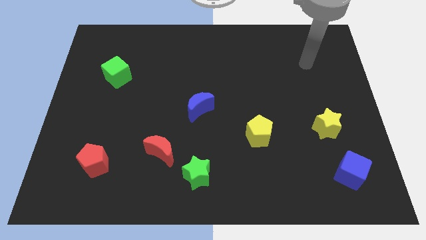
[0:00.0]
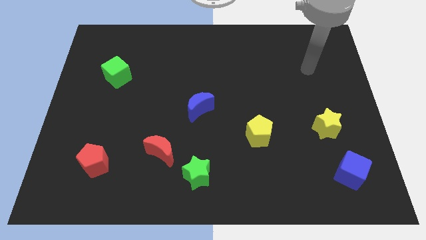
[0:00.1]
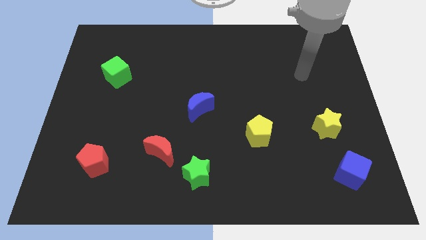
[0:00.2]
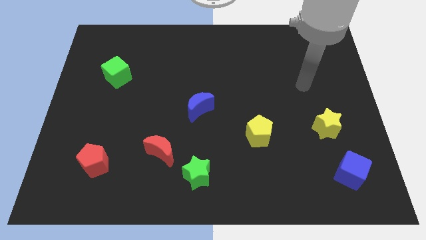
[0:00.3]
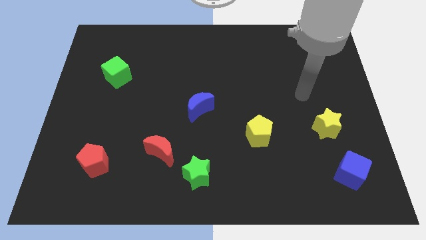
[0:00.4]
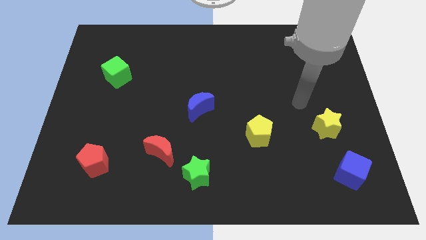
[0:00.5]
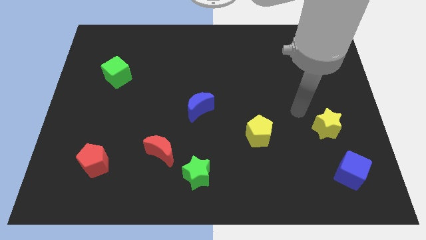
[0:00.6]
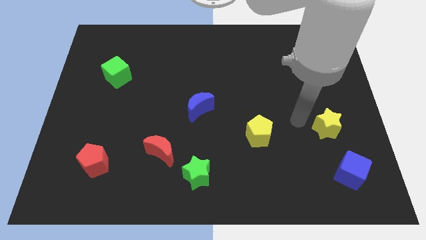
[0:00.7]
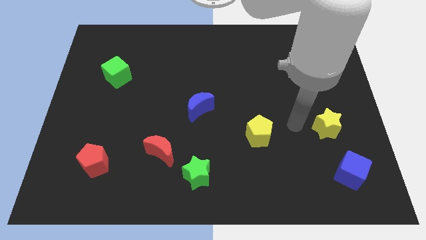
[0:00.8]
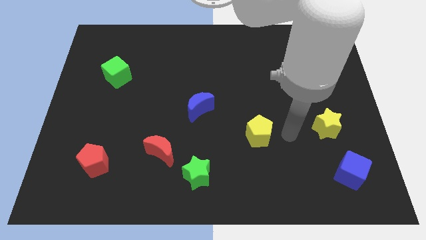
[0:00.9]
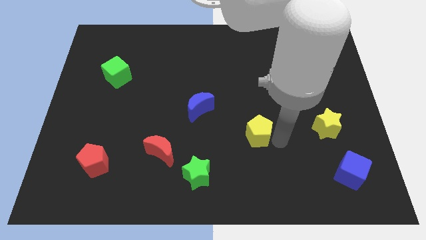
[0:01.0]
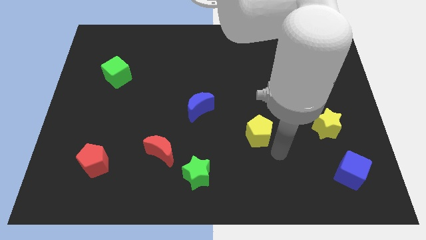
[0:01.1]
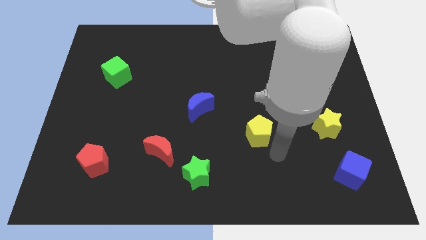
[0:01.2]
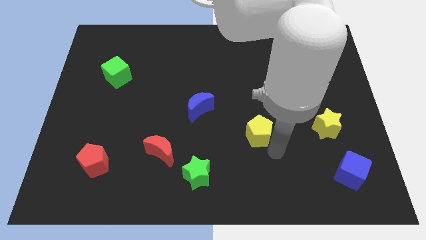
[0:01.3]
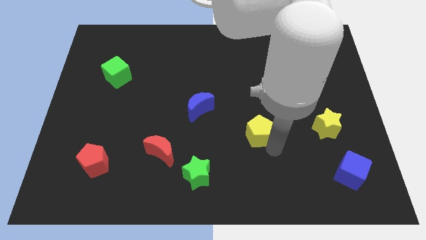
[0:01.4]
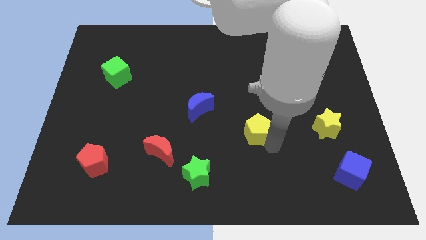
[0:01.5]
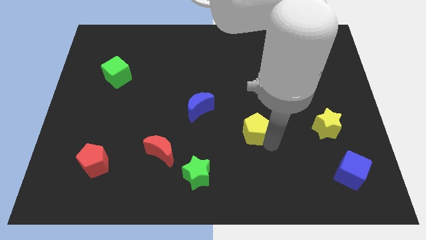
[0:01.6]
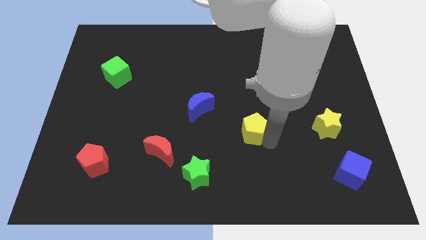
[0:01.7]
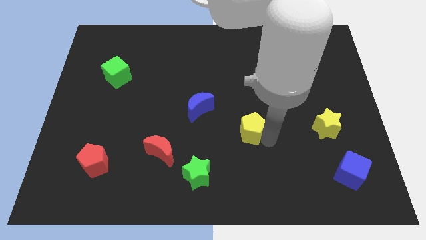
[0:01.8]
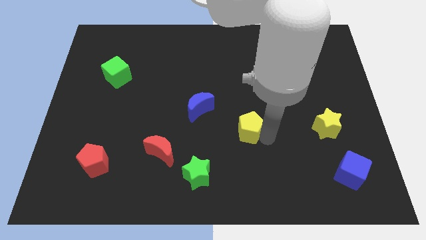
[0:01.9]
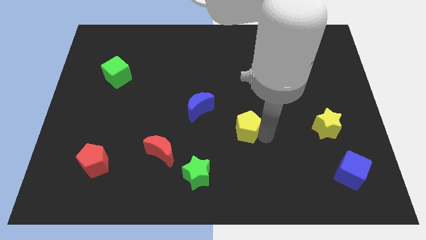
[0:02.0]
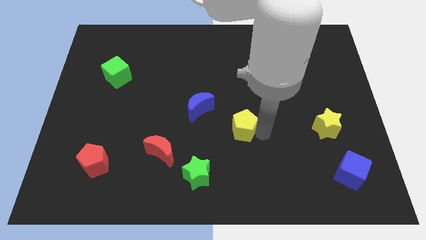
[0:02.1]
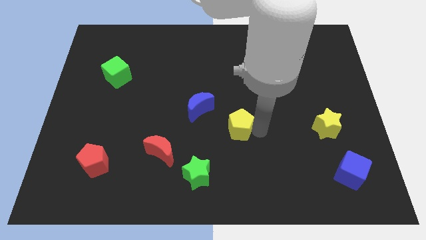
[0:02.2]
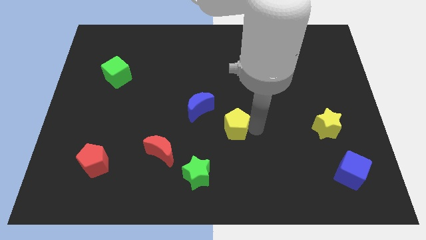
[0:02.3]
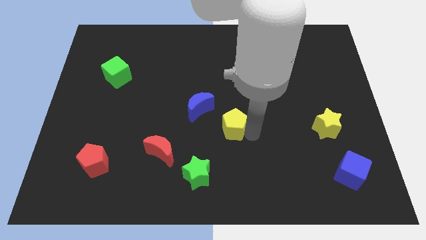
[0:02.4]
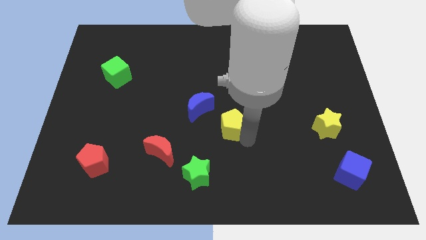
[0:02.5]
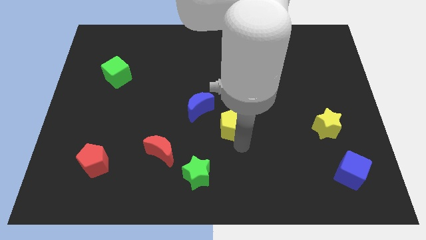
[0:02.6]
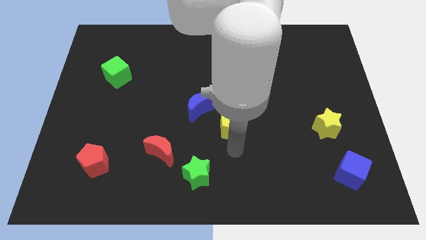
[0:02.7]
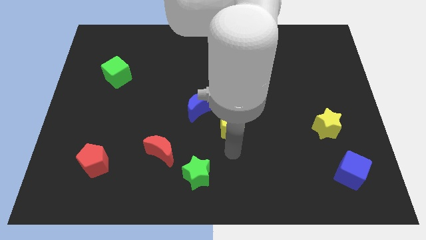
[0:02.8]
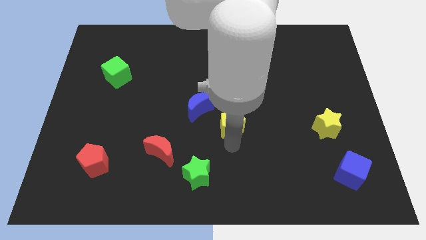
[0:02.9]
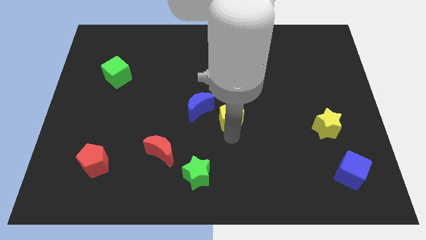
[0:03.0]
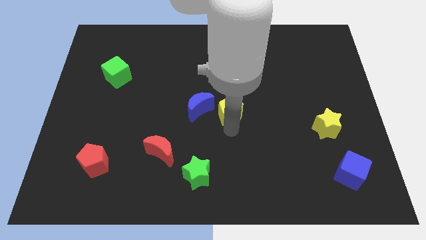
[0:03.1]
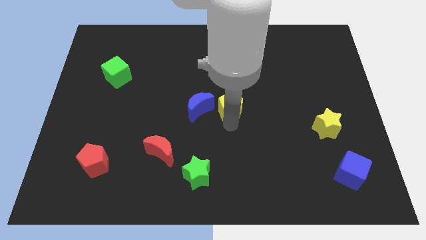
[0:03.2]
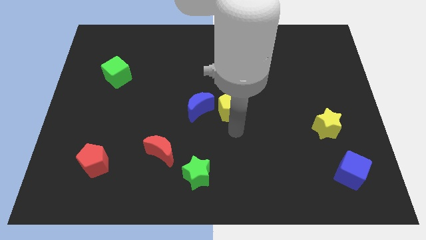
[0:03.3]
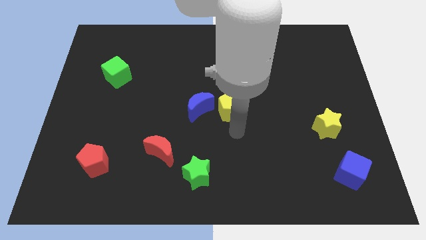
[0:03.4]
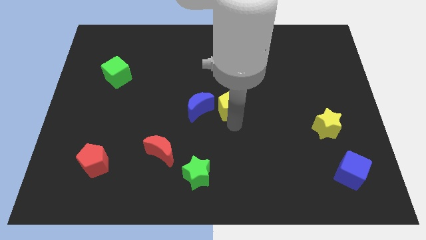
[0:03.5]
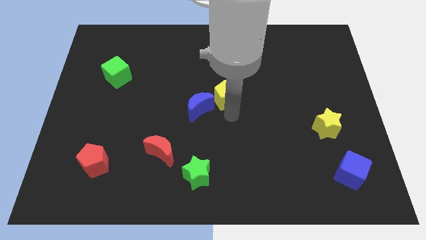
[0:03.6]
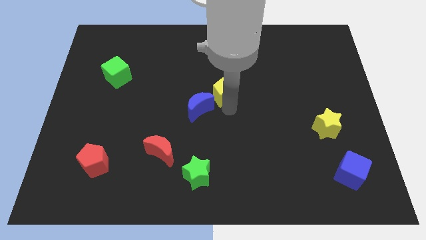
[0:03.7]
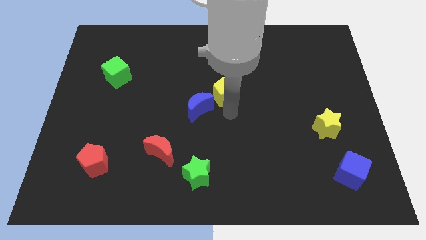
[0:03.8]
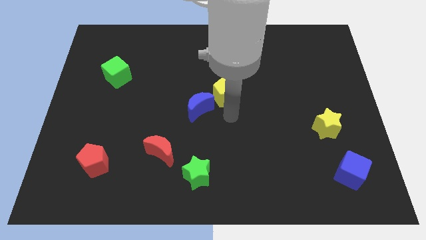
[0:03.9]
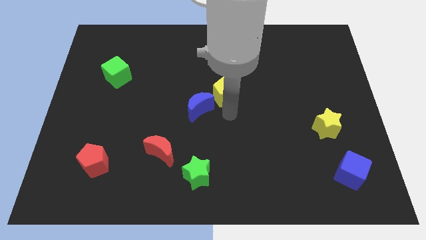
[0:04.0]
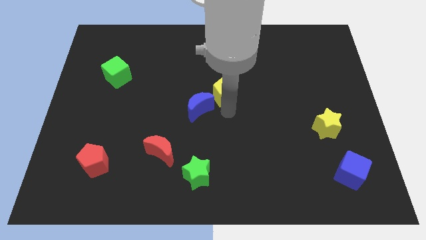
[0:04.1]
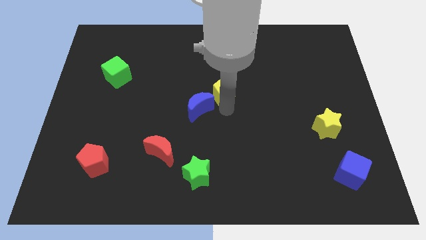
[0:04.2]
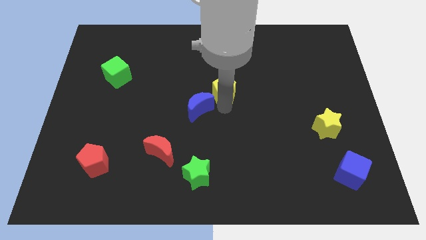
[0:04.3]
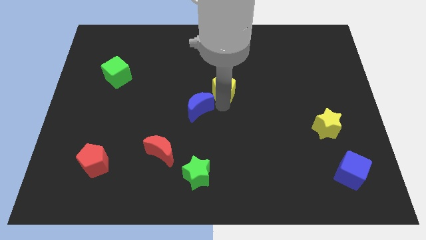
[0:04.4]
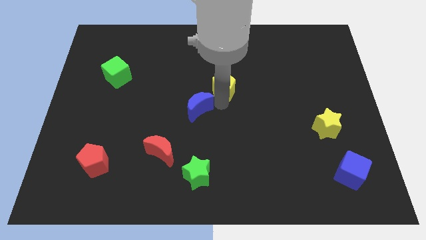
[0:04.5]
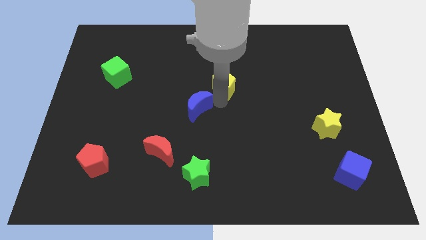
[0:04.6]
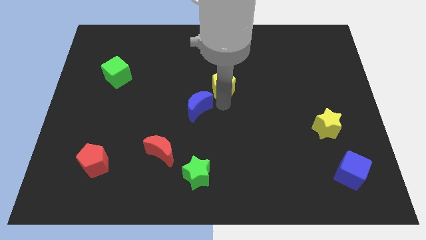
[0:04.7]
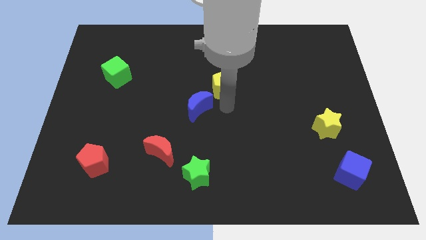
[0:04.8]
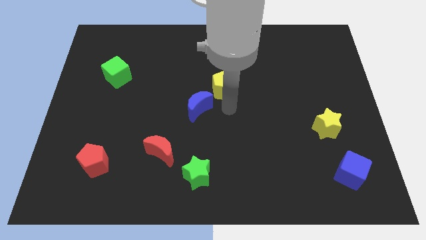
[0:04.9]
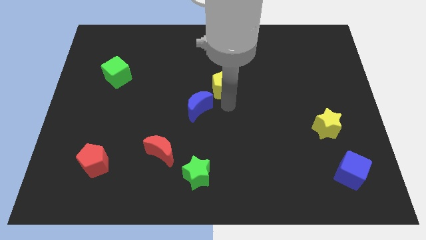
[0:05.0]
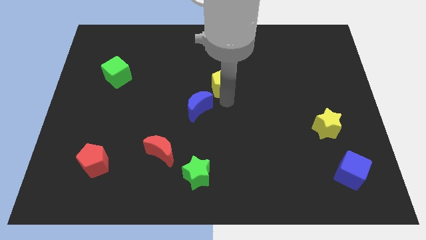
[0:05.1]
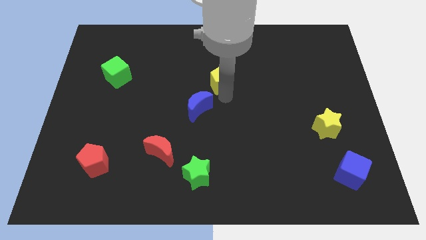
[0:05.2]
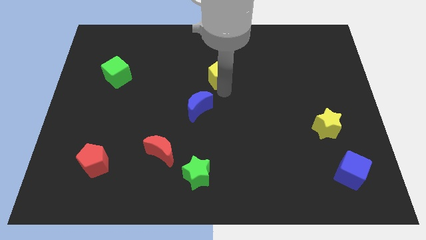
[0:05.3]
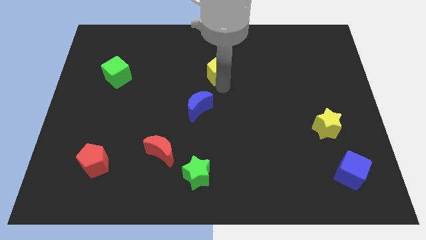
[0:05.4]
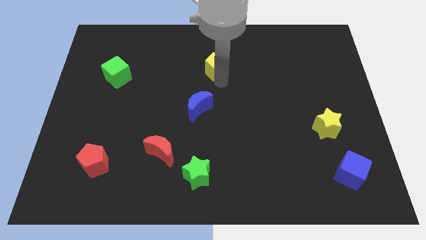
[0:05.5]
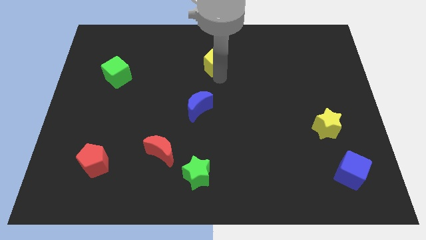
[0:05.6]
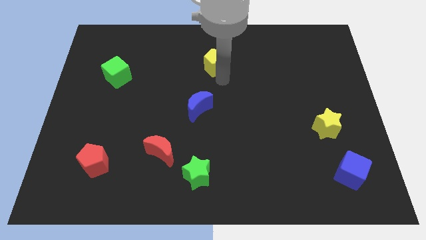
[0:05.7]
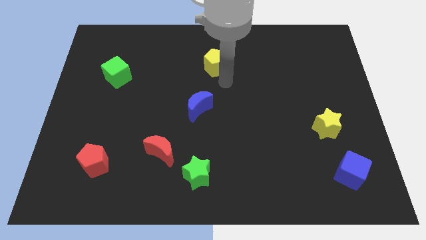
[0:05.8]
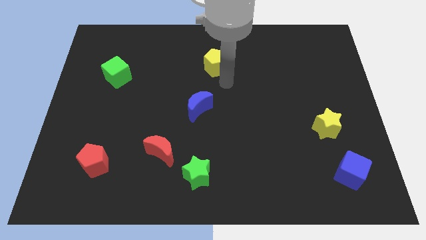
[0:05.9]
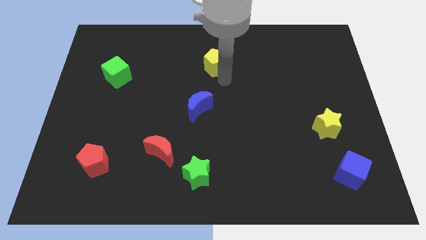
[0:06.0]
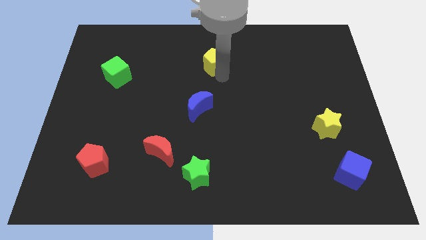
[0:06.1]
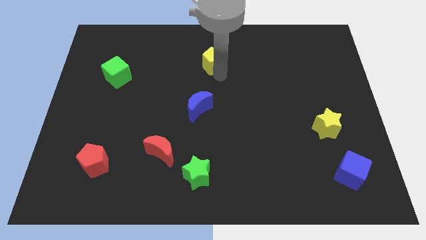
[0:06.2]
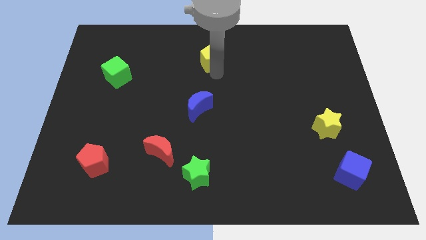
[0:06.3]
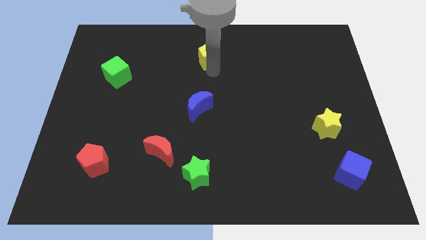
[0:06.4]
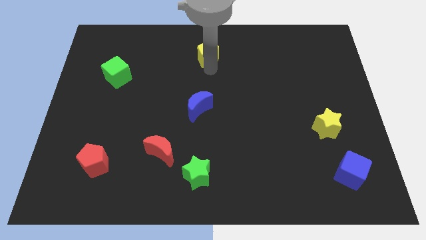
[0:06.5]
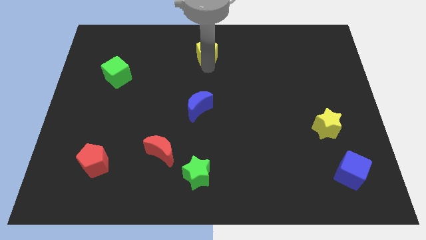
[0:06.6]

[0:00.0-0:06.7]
put the yellow pentagon to the top
